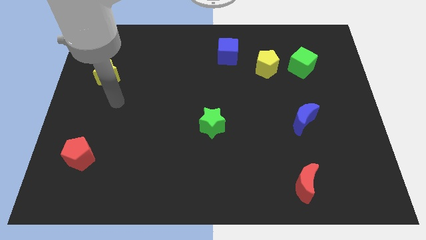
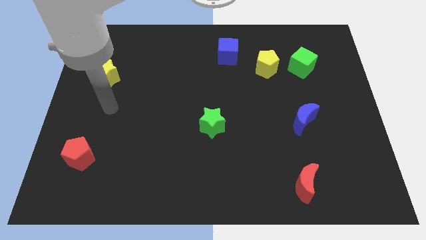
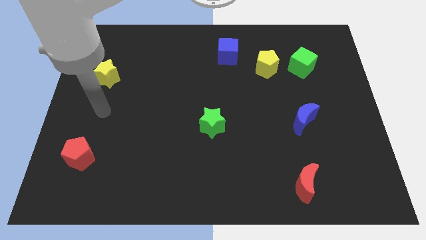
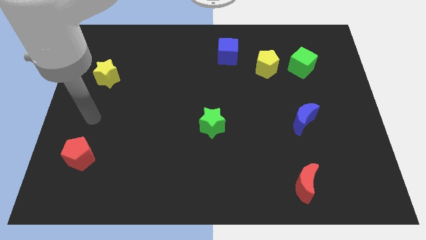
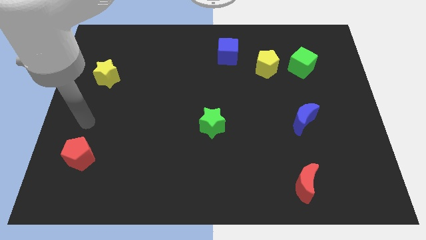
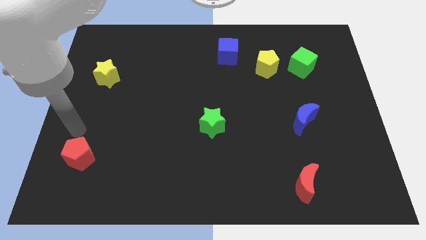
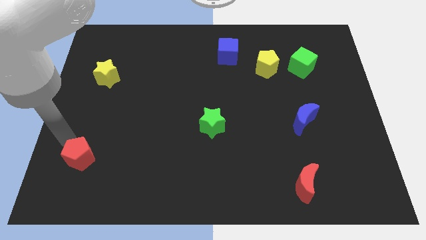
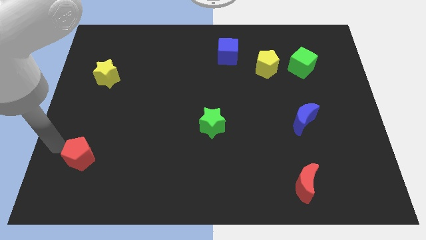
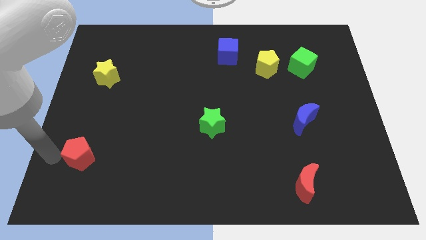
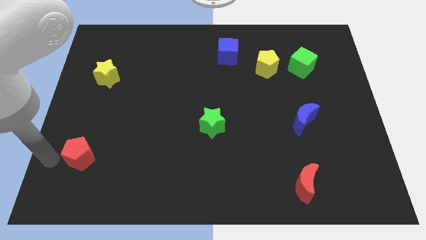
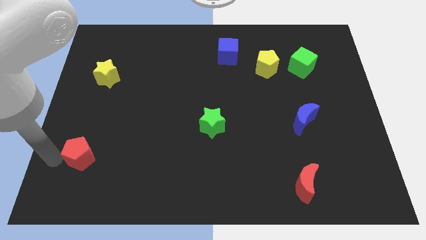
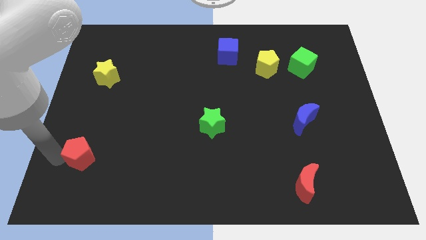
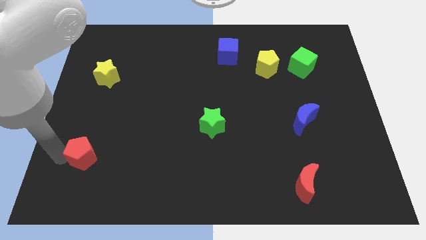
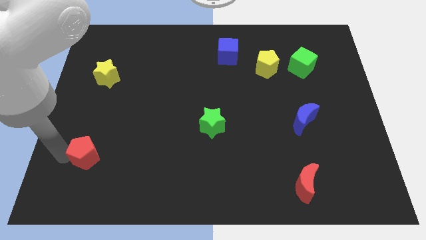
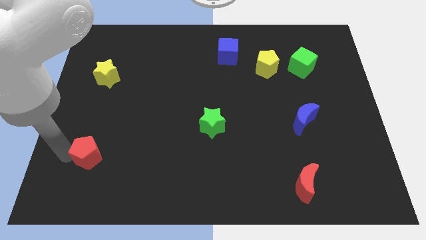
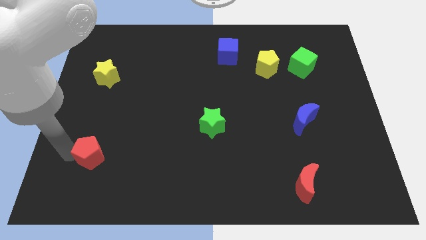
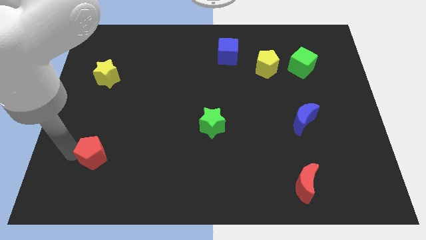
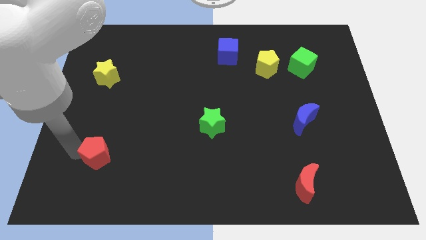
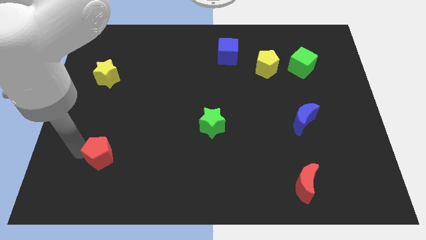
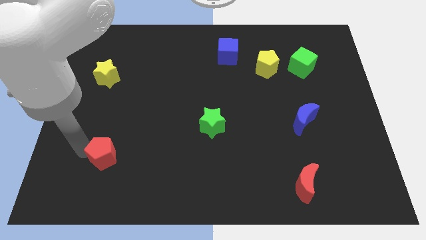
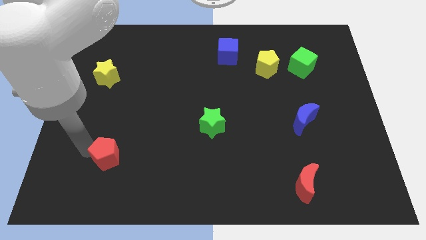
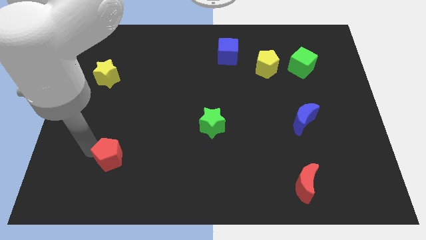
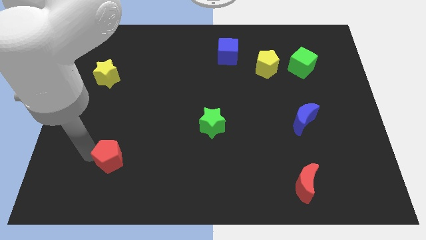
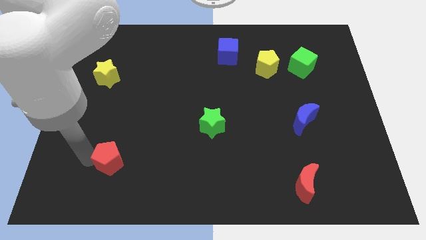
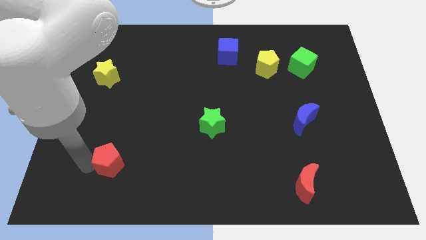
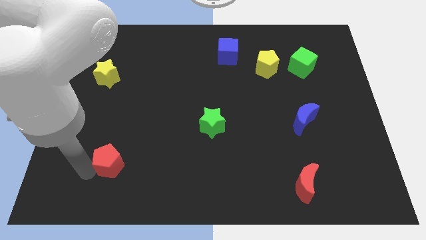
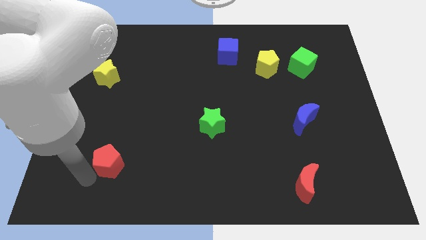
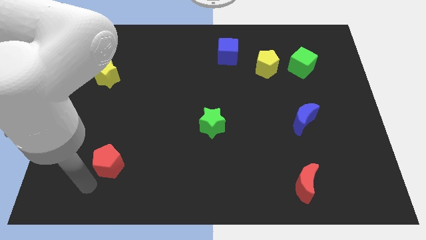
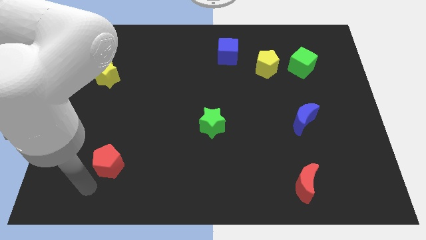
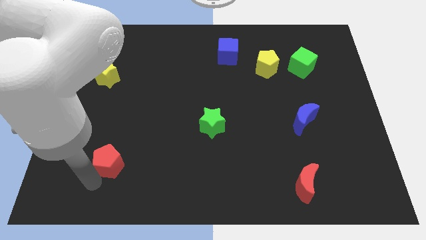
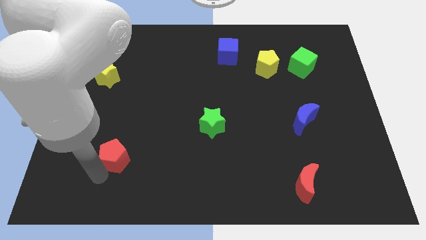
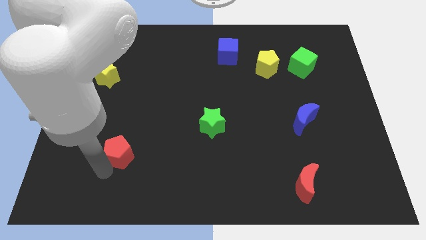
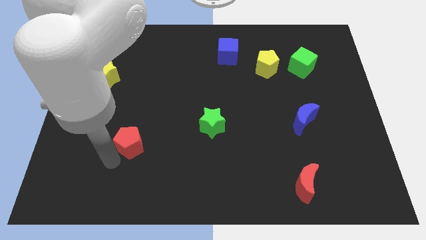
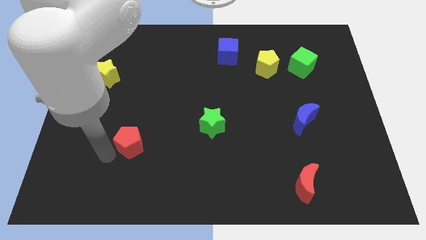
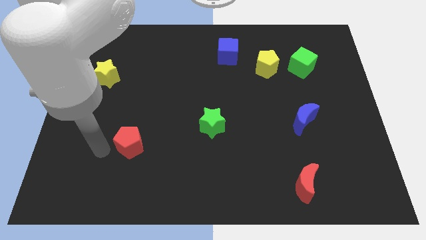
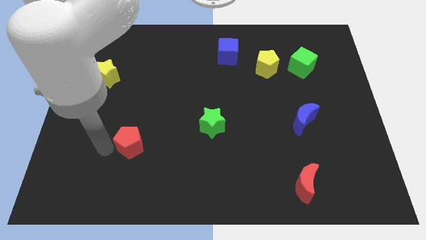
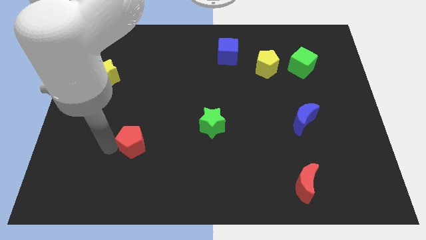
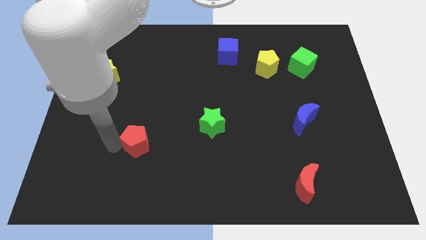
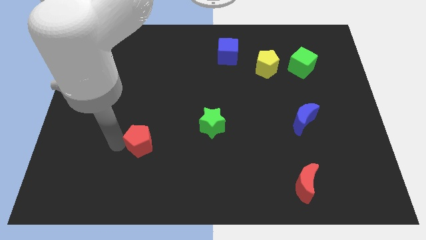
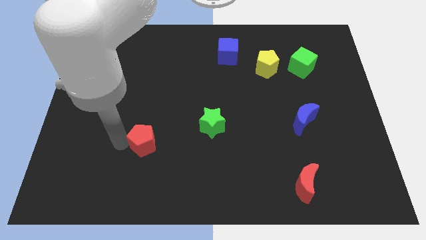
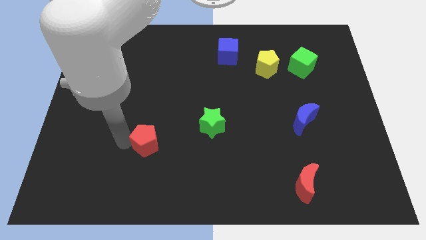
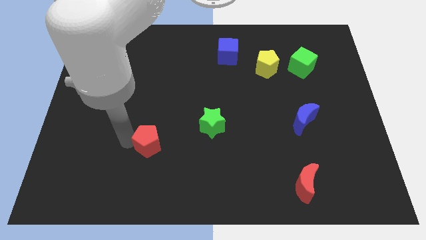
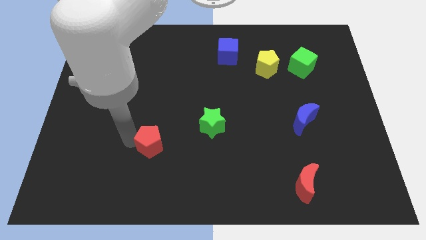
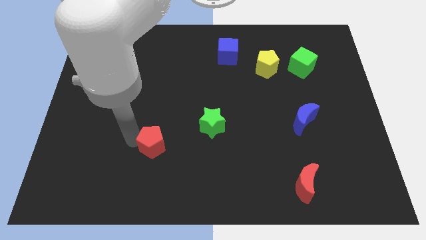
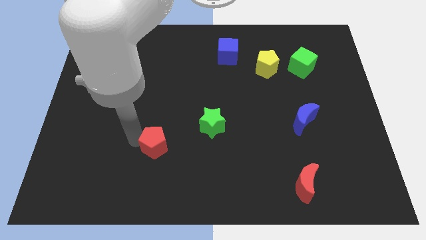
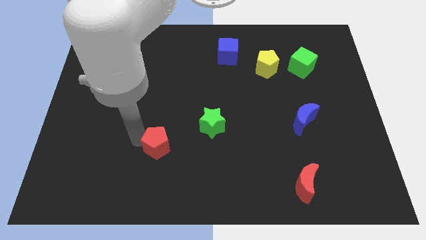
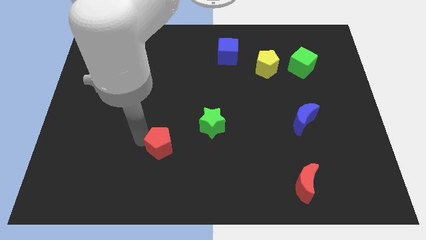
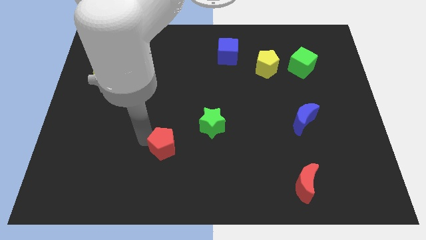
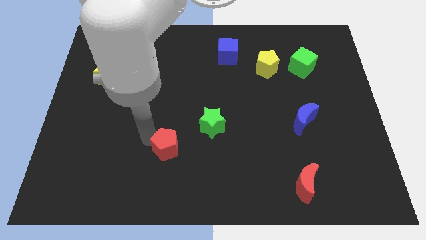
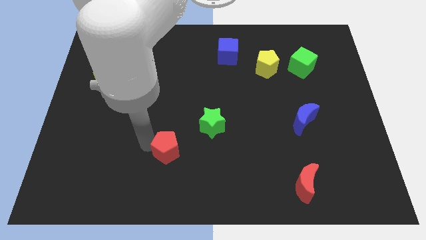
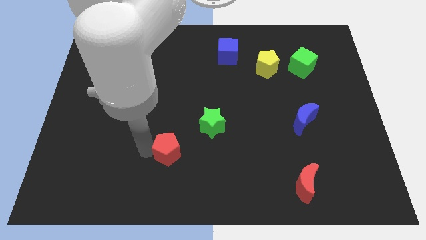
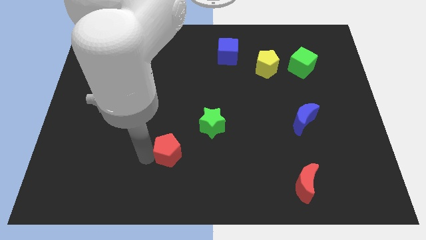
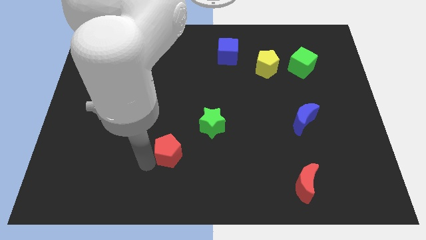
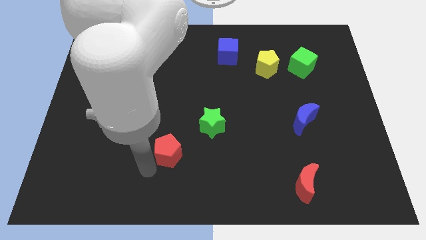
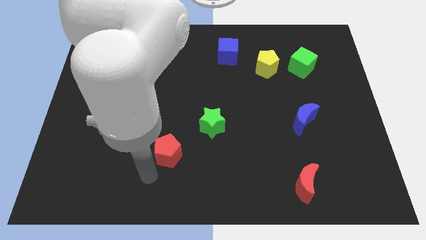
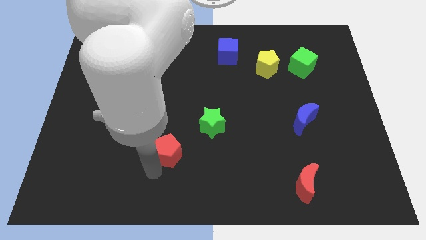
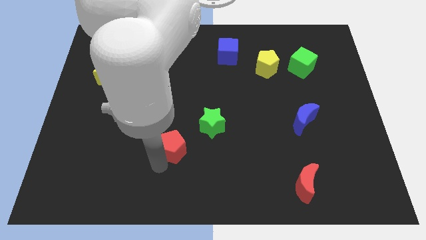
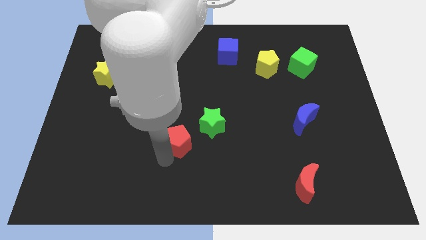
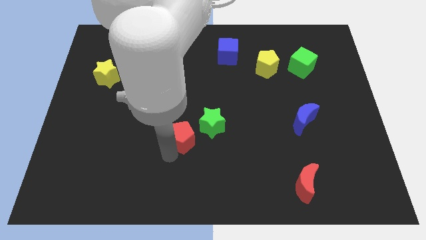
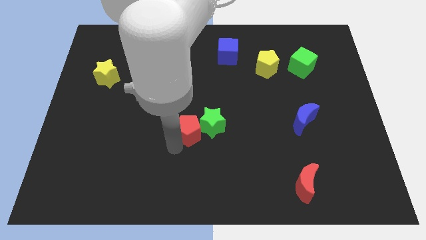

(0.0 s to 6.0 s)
move the red pentagon towards the green star

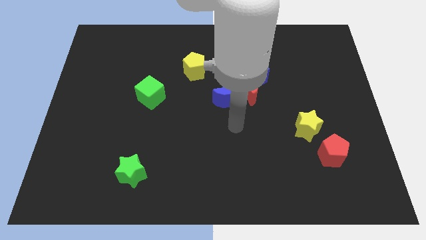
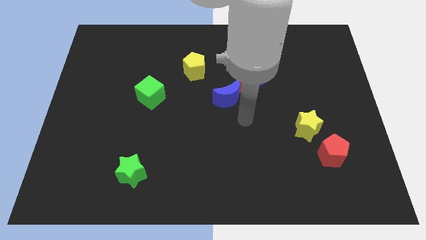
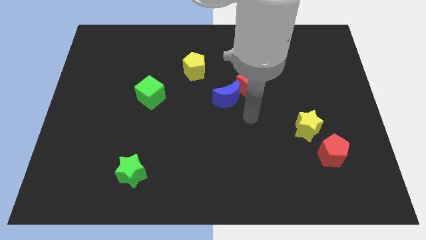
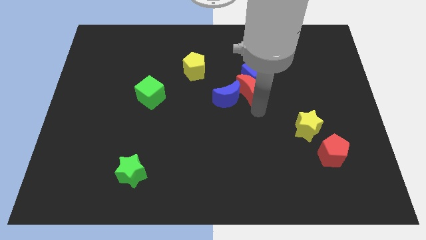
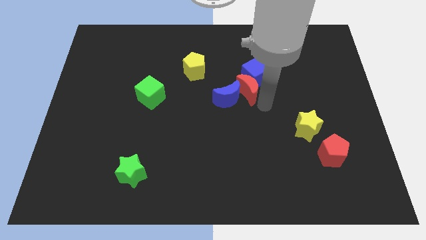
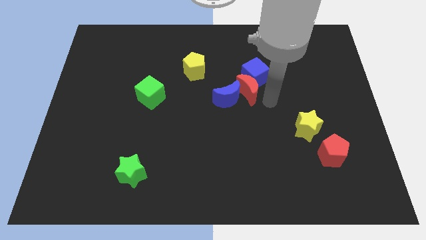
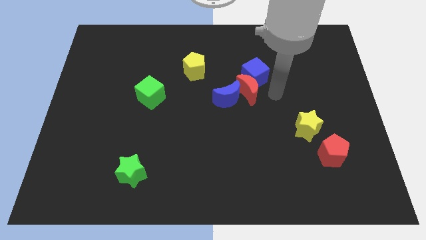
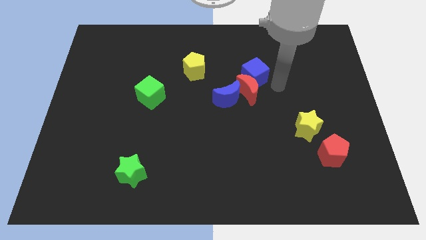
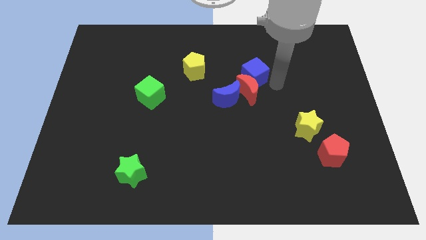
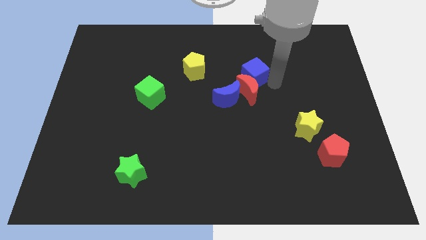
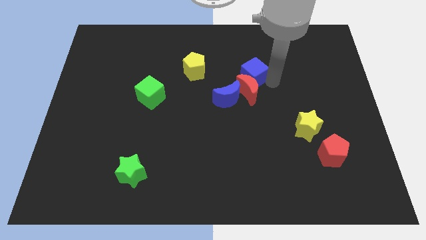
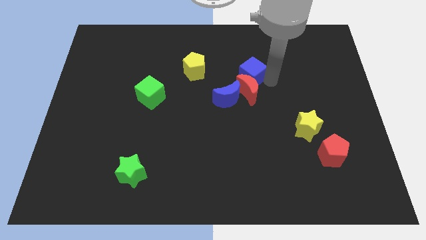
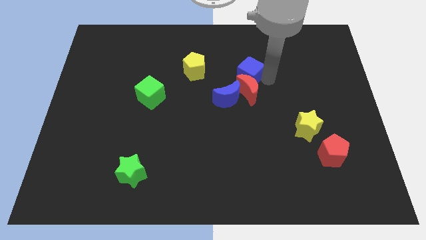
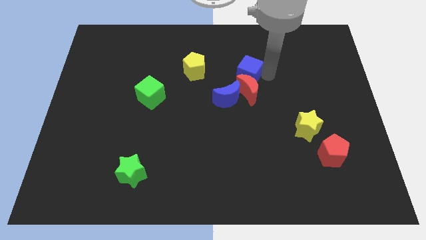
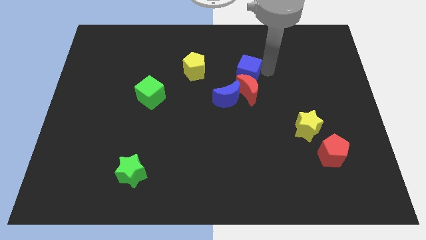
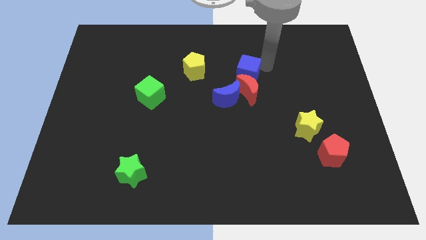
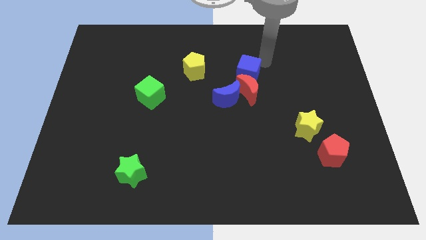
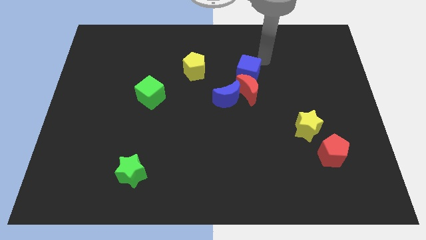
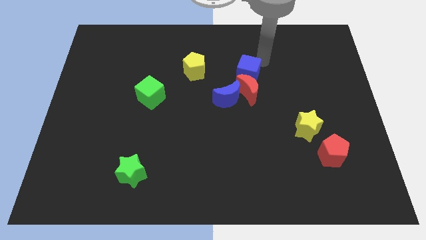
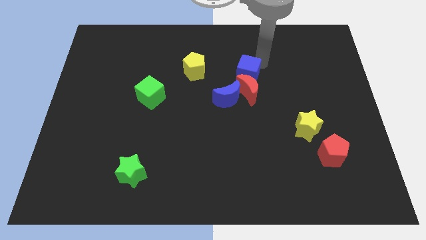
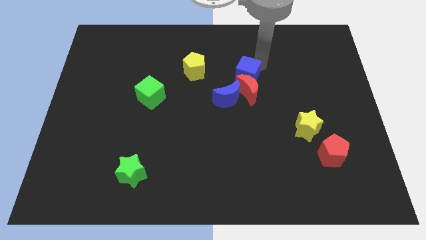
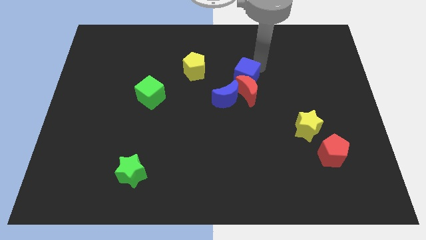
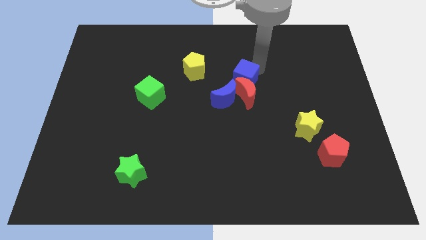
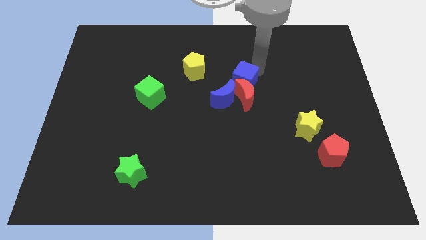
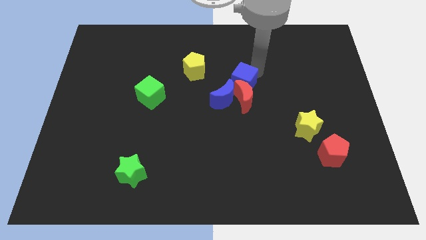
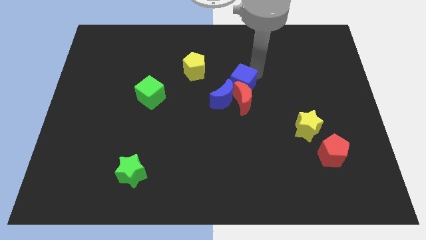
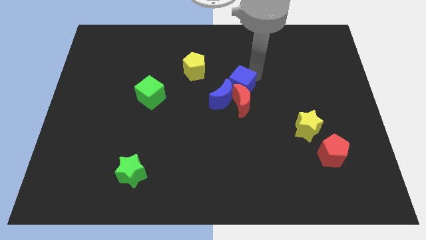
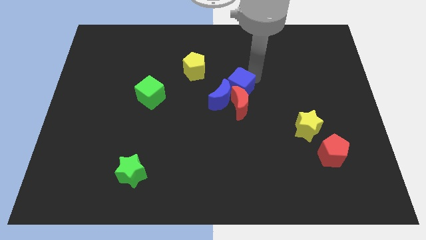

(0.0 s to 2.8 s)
put the blue cube next to the blue moon
